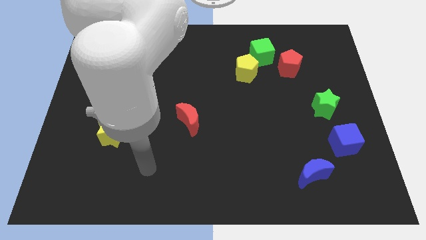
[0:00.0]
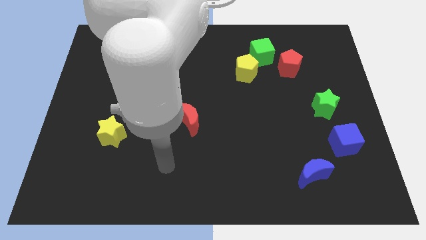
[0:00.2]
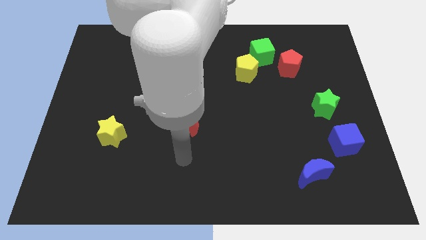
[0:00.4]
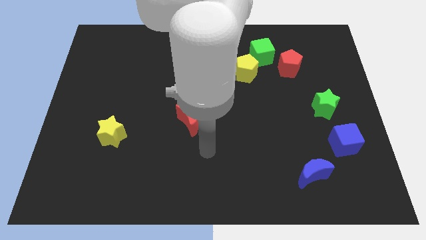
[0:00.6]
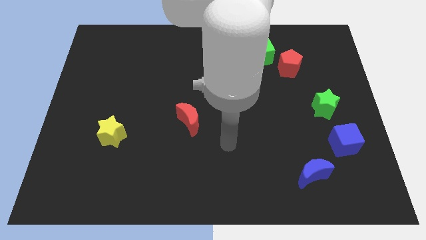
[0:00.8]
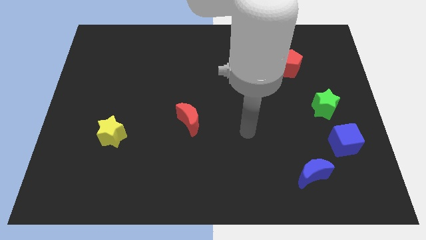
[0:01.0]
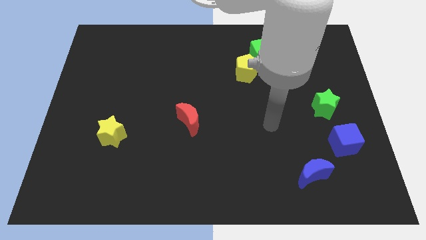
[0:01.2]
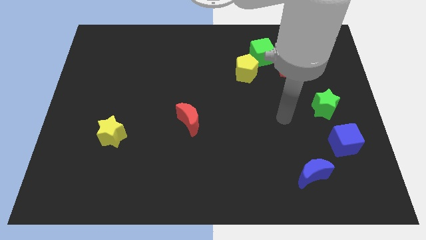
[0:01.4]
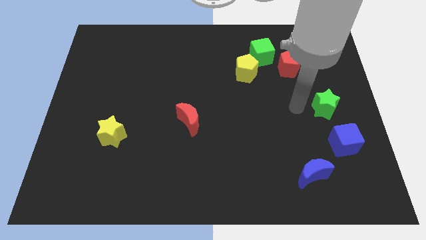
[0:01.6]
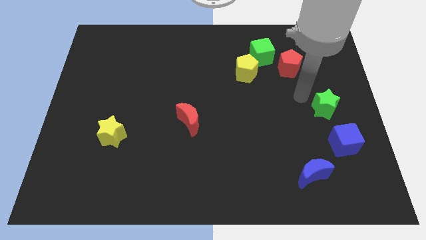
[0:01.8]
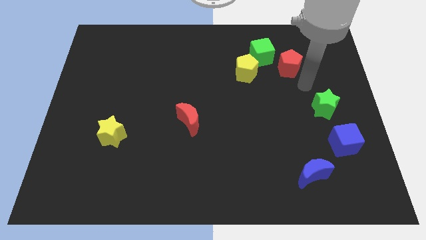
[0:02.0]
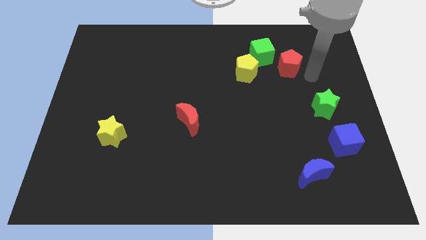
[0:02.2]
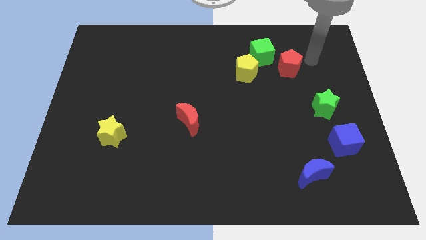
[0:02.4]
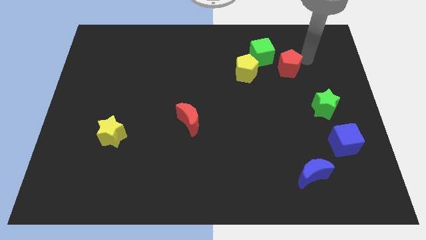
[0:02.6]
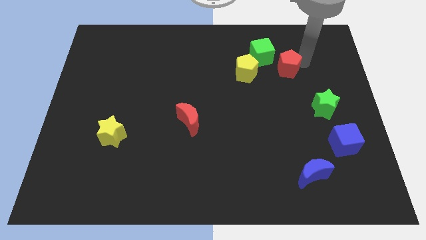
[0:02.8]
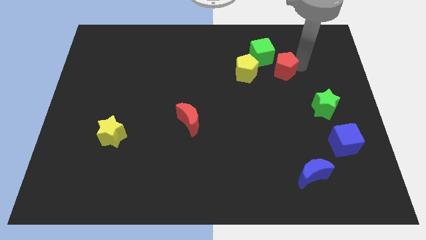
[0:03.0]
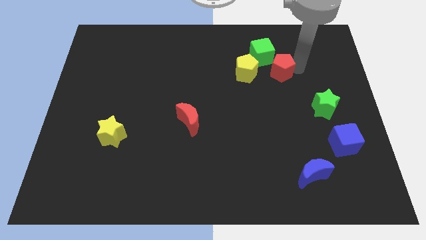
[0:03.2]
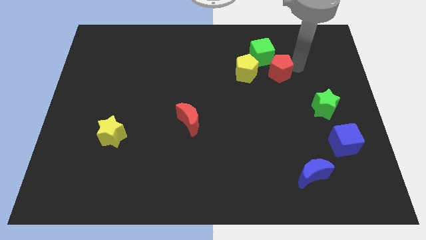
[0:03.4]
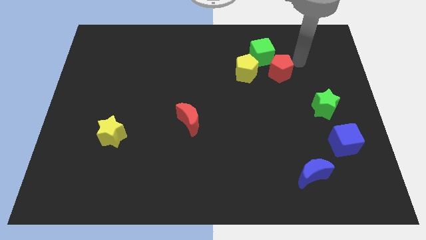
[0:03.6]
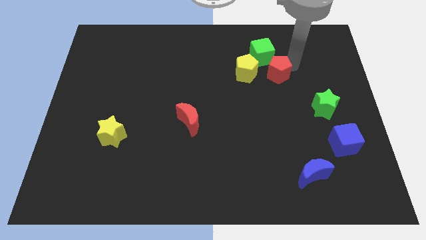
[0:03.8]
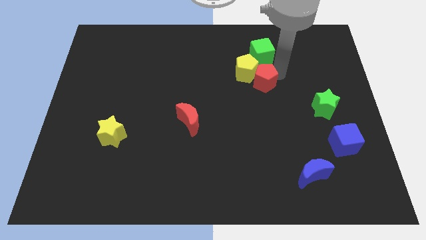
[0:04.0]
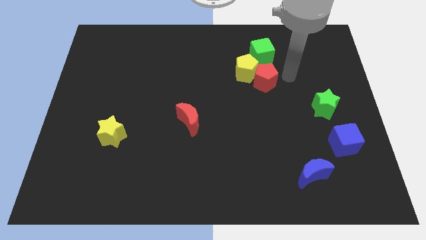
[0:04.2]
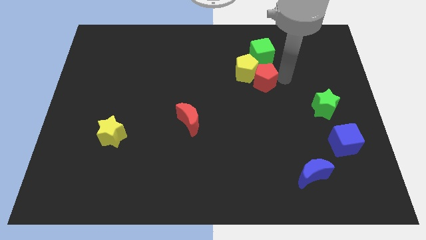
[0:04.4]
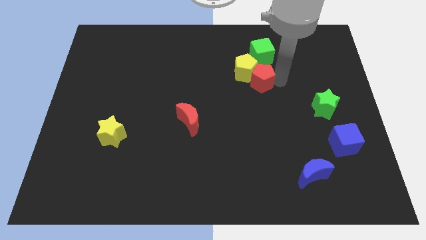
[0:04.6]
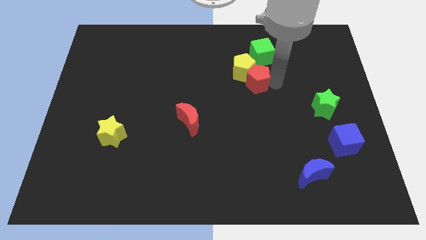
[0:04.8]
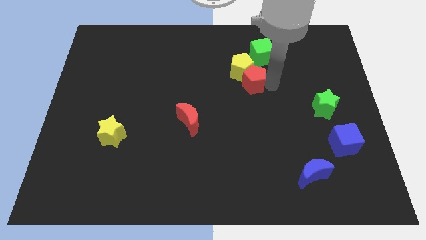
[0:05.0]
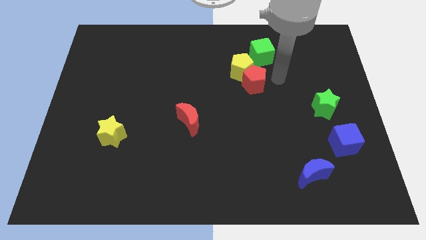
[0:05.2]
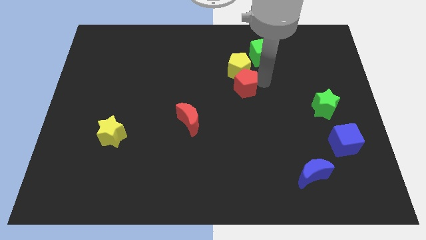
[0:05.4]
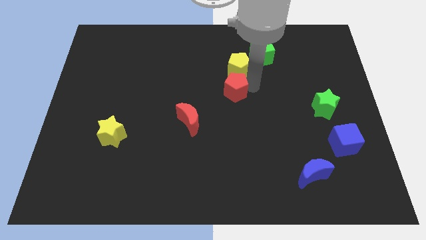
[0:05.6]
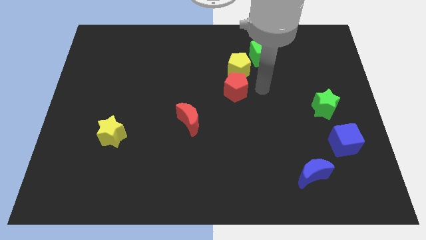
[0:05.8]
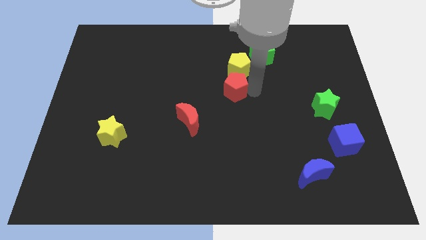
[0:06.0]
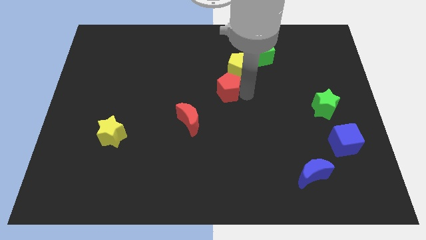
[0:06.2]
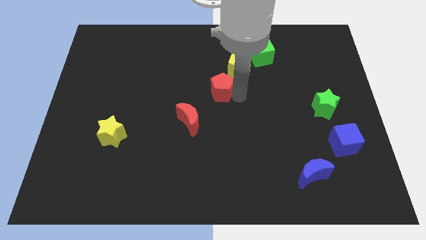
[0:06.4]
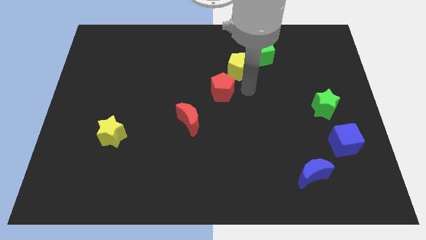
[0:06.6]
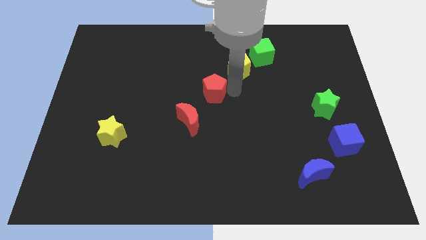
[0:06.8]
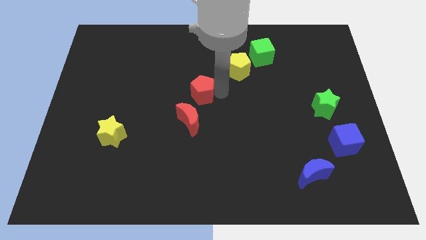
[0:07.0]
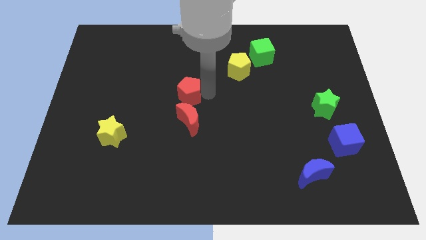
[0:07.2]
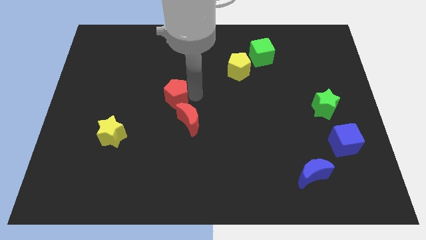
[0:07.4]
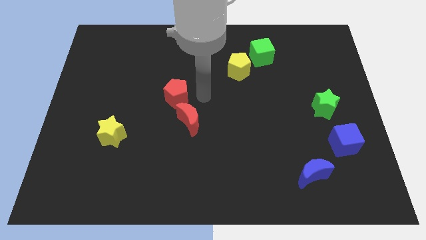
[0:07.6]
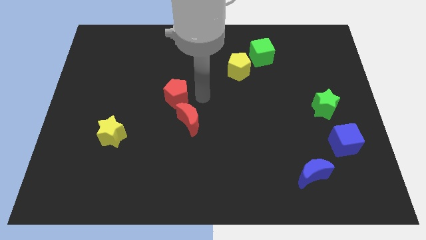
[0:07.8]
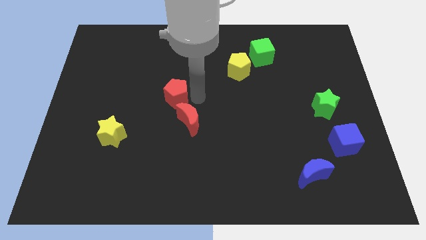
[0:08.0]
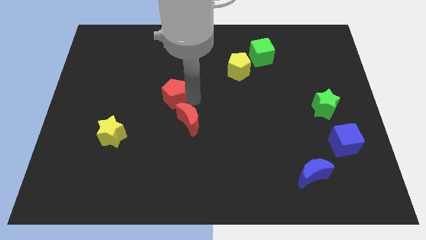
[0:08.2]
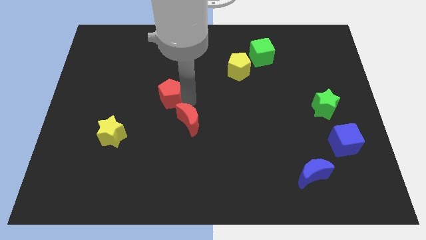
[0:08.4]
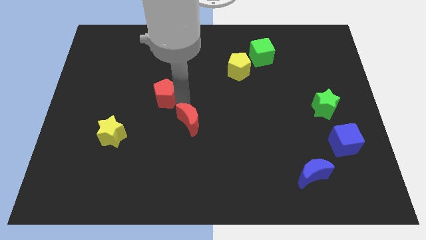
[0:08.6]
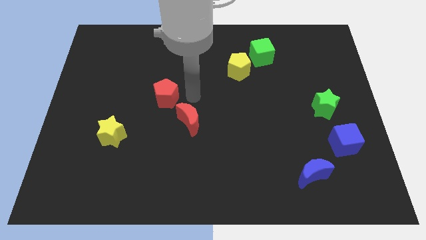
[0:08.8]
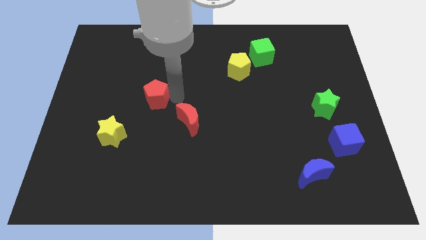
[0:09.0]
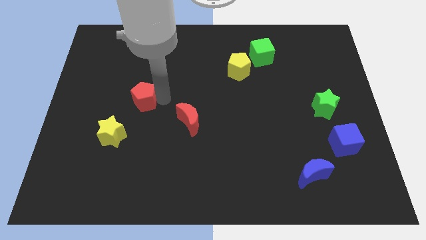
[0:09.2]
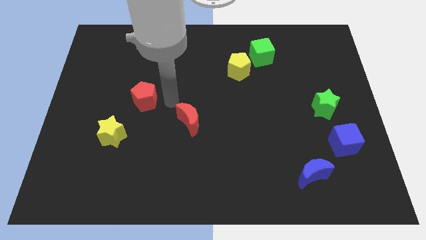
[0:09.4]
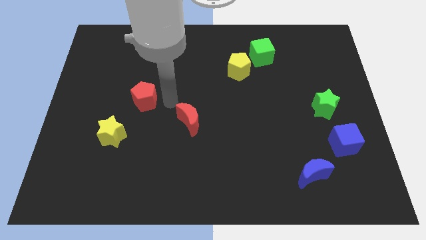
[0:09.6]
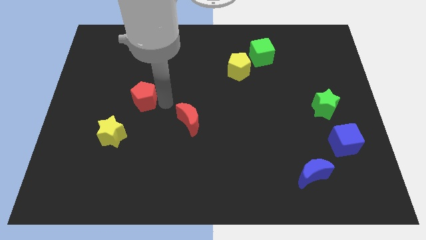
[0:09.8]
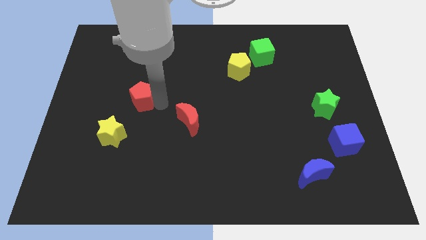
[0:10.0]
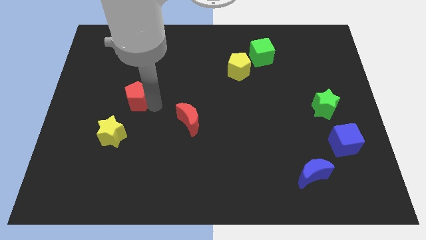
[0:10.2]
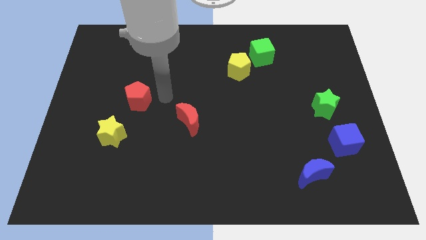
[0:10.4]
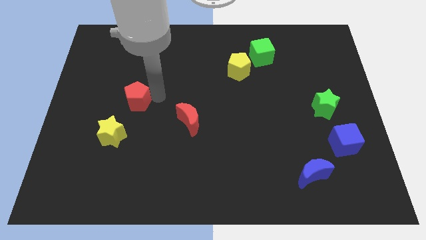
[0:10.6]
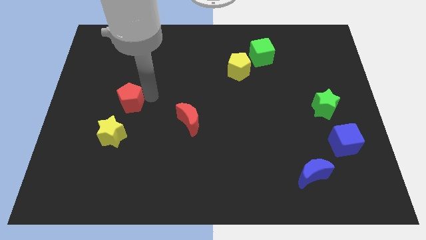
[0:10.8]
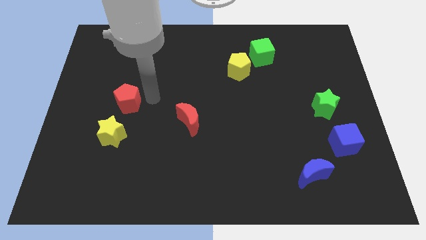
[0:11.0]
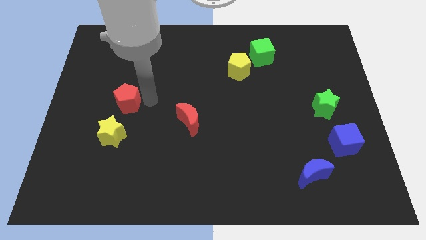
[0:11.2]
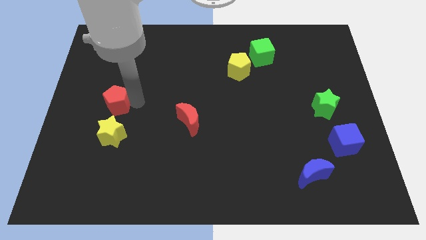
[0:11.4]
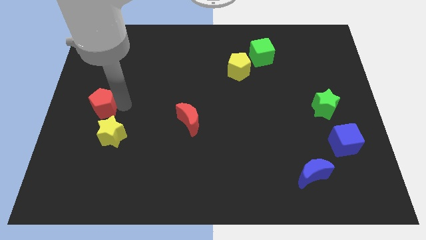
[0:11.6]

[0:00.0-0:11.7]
push the red pentagon to the left side of the board

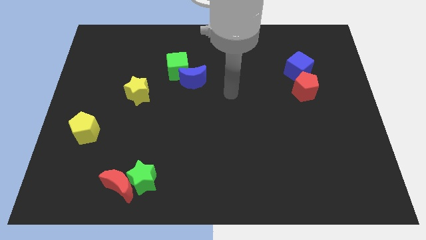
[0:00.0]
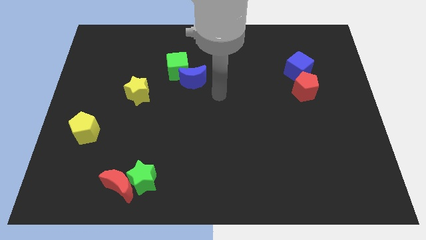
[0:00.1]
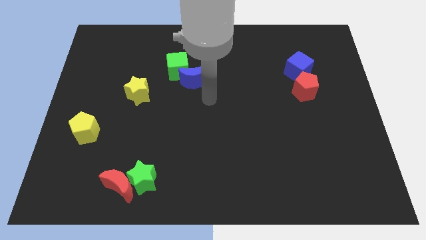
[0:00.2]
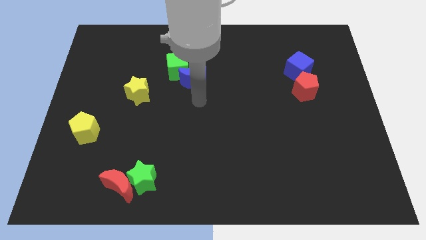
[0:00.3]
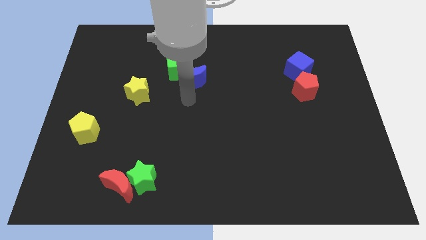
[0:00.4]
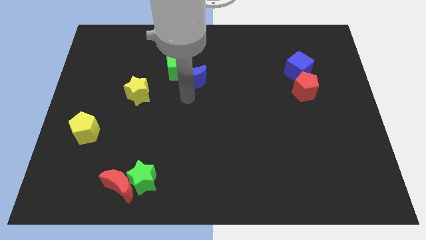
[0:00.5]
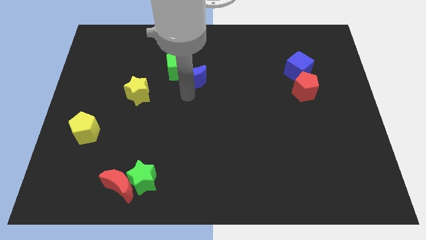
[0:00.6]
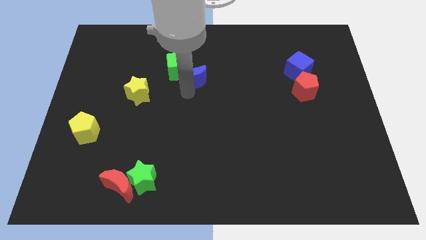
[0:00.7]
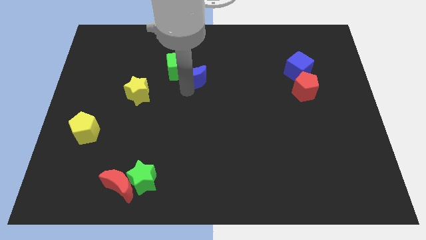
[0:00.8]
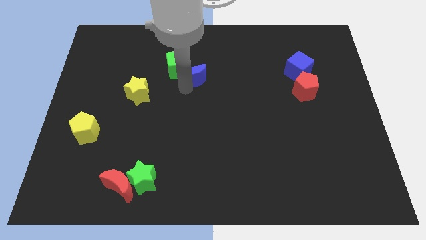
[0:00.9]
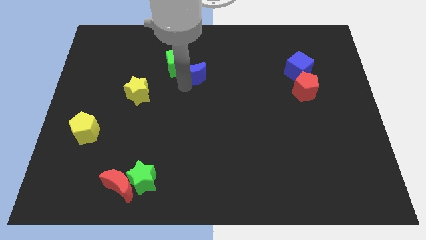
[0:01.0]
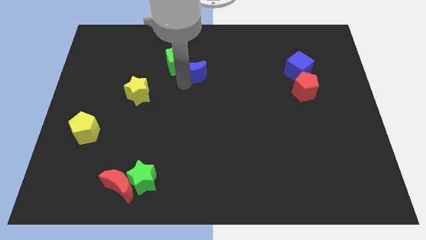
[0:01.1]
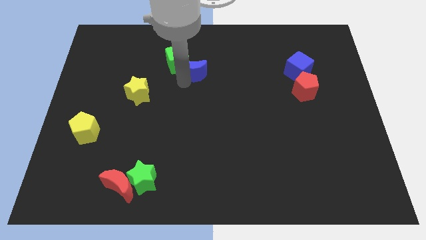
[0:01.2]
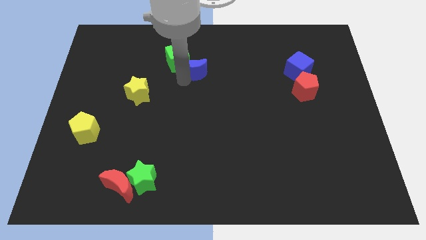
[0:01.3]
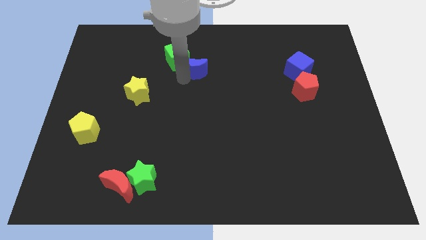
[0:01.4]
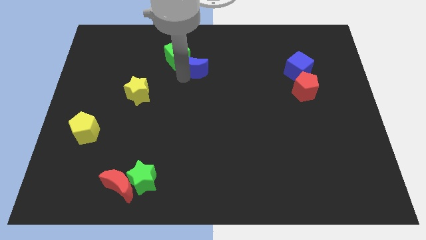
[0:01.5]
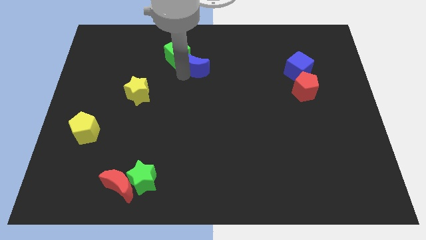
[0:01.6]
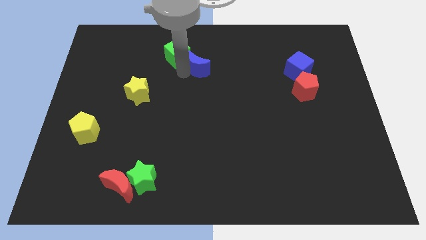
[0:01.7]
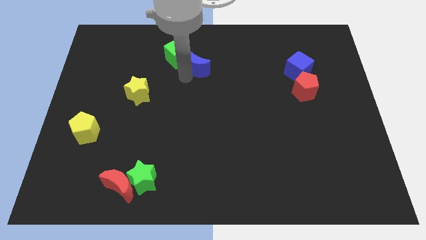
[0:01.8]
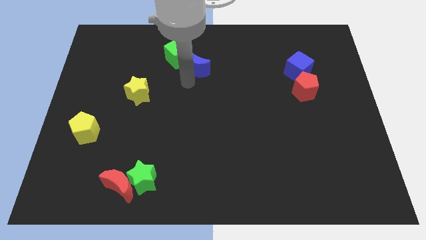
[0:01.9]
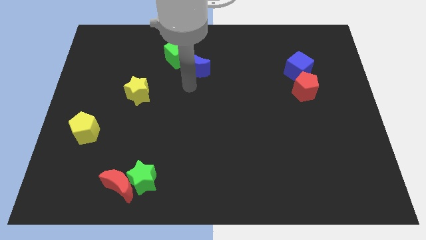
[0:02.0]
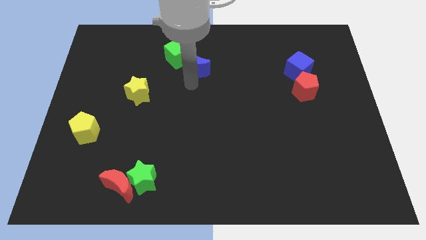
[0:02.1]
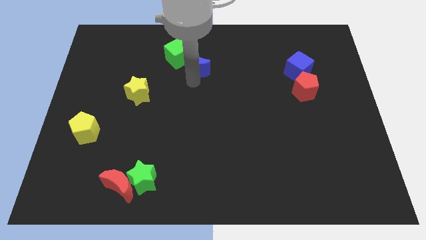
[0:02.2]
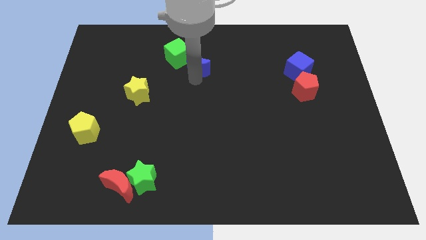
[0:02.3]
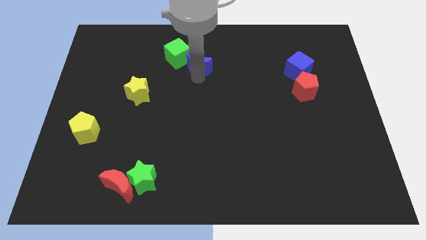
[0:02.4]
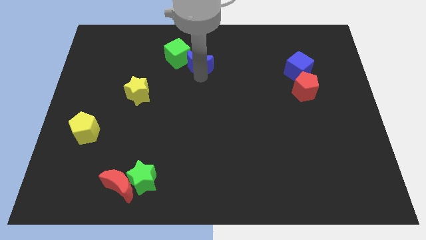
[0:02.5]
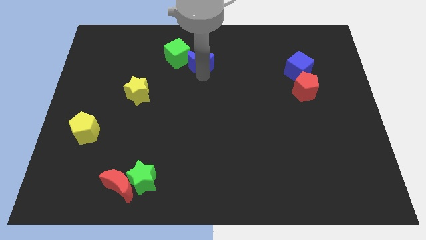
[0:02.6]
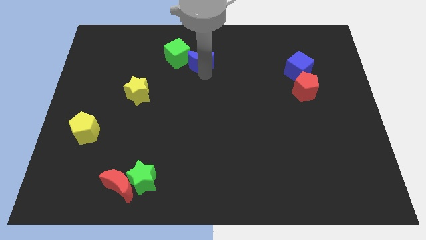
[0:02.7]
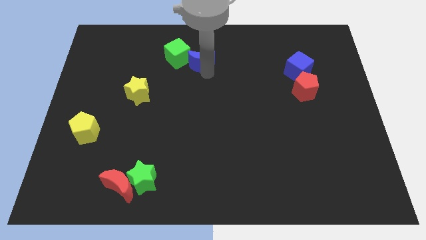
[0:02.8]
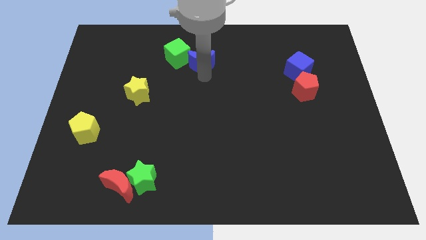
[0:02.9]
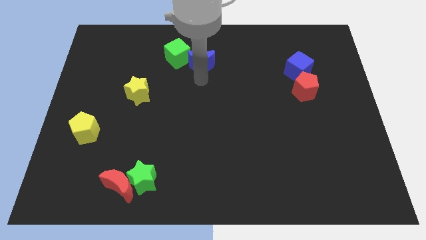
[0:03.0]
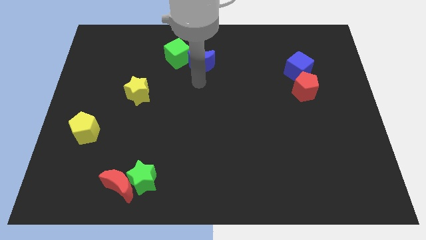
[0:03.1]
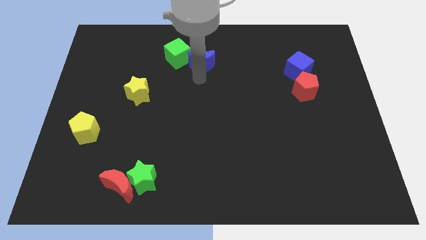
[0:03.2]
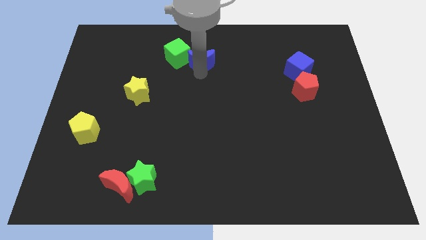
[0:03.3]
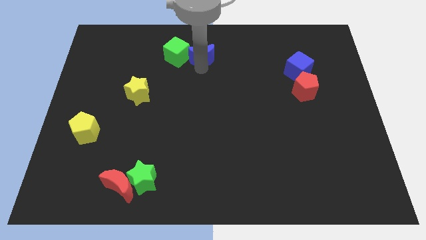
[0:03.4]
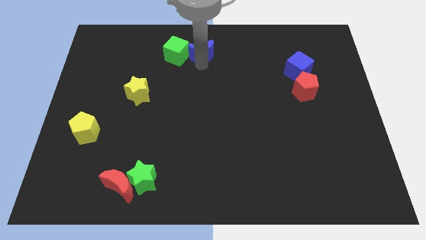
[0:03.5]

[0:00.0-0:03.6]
move the blue moon to the top side
